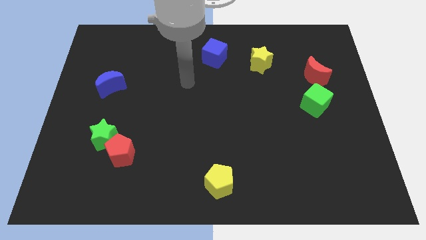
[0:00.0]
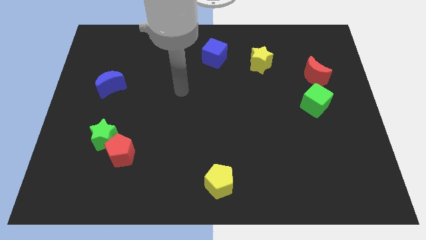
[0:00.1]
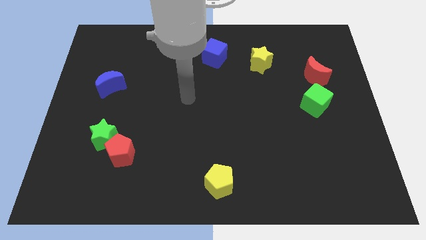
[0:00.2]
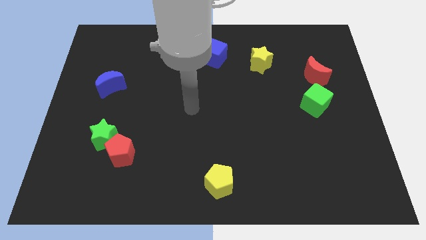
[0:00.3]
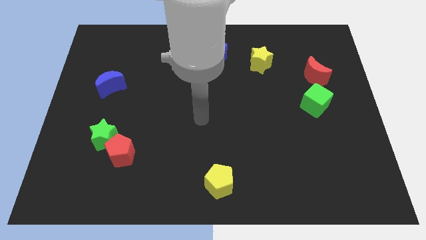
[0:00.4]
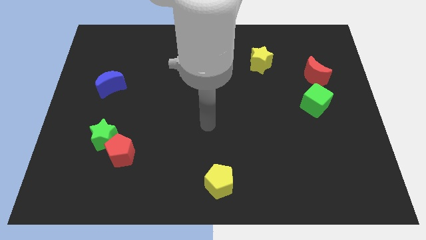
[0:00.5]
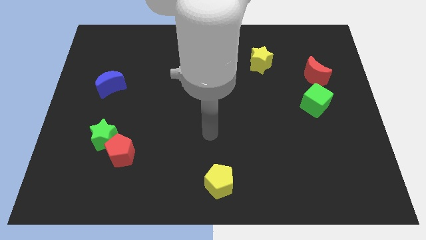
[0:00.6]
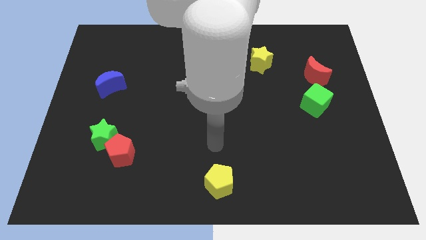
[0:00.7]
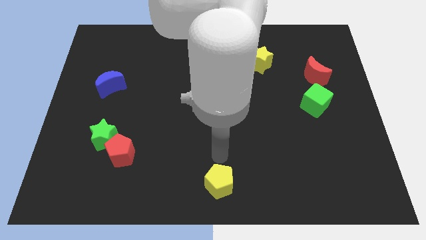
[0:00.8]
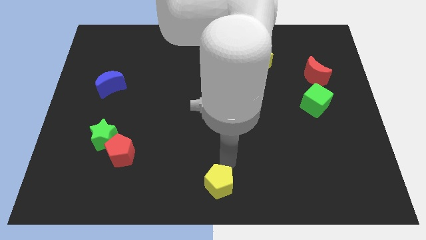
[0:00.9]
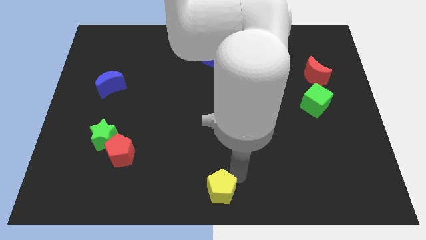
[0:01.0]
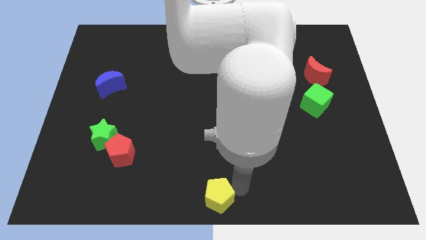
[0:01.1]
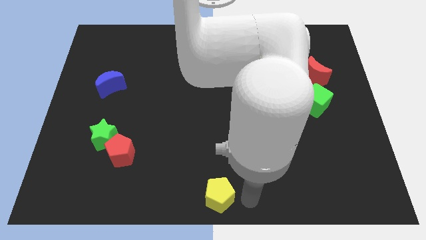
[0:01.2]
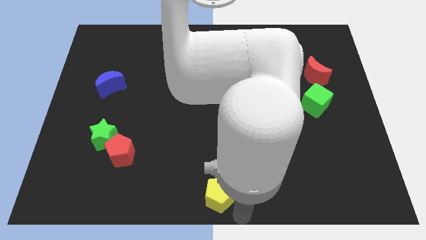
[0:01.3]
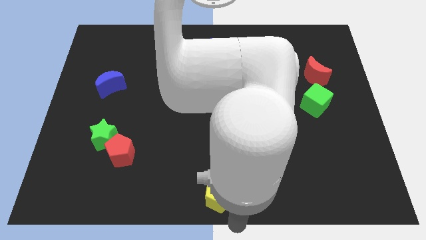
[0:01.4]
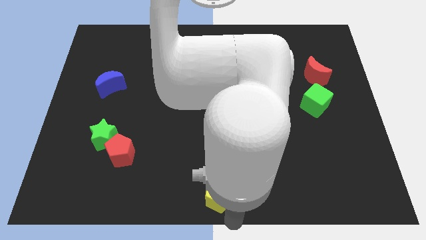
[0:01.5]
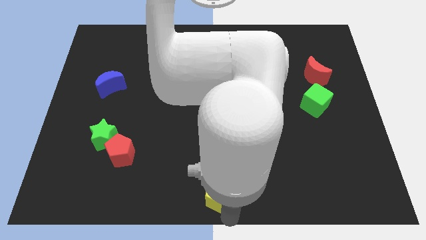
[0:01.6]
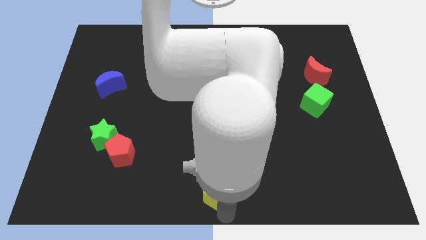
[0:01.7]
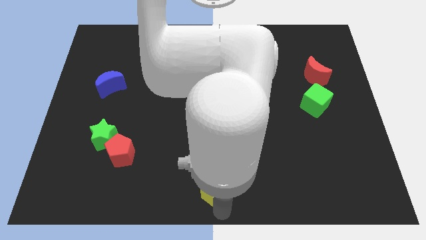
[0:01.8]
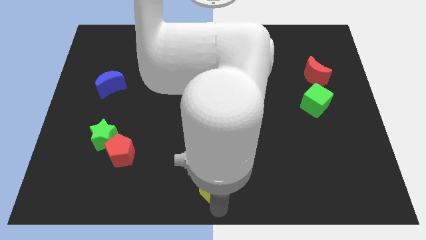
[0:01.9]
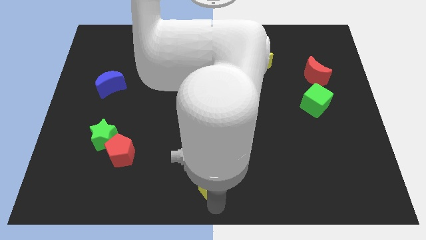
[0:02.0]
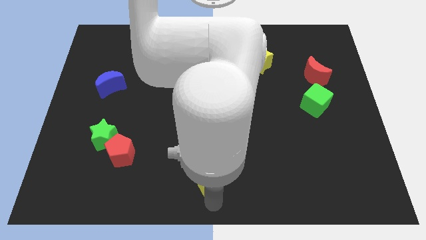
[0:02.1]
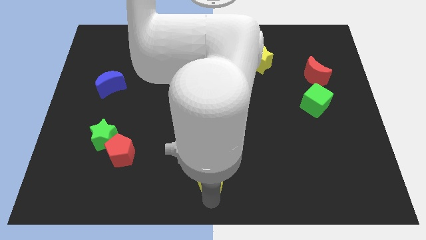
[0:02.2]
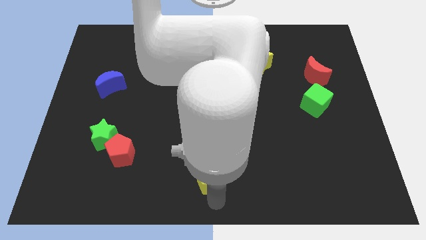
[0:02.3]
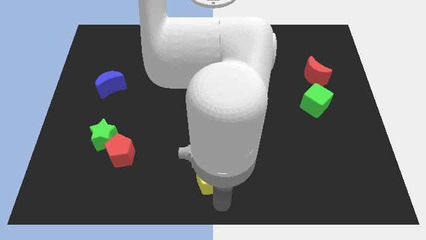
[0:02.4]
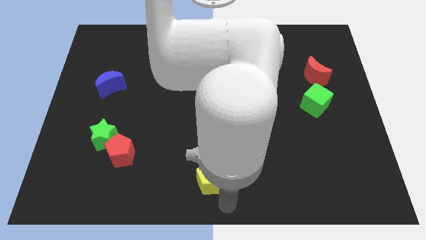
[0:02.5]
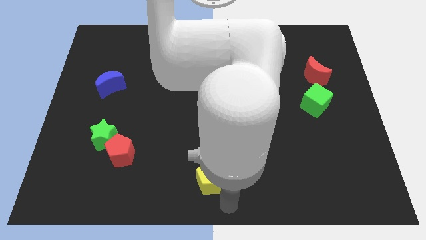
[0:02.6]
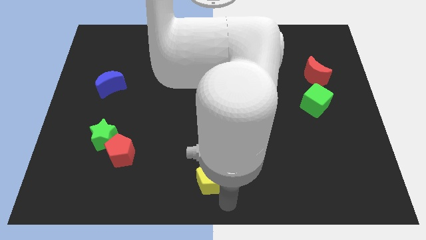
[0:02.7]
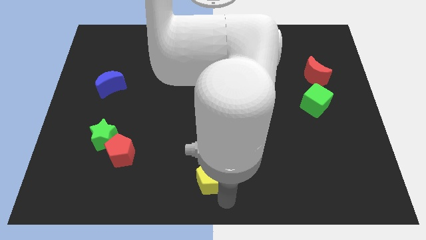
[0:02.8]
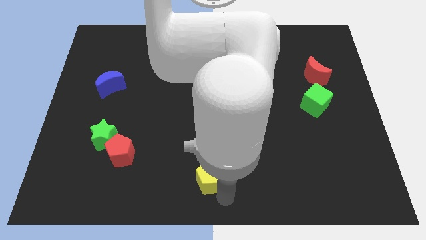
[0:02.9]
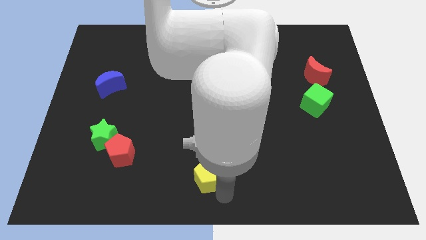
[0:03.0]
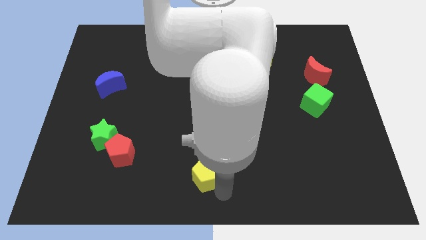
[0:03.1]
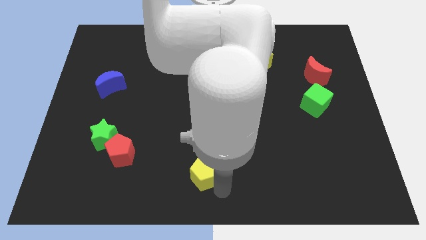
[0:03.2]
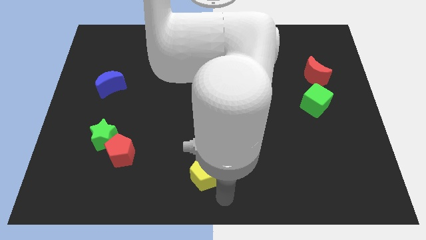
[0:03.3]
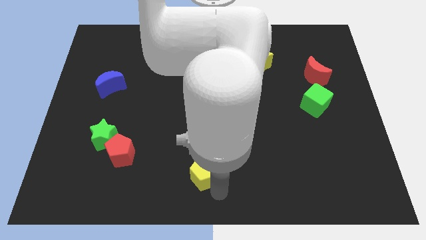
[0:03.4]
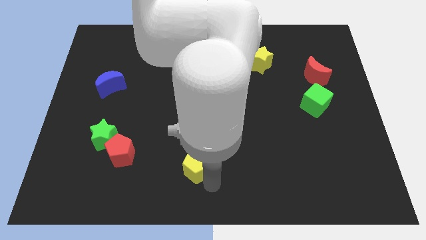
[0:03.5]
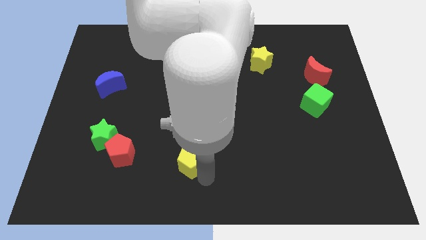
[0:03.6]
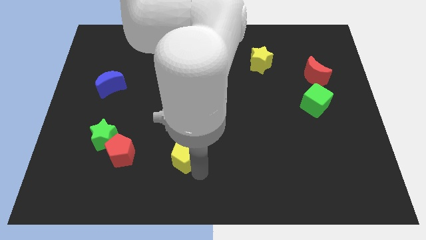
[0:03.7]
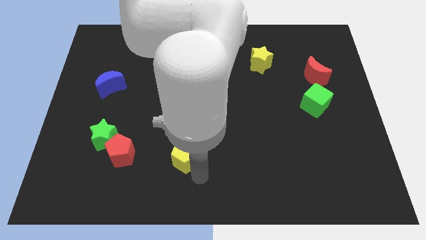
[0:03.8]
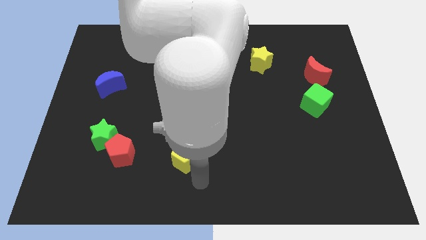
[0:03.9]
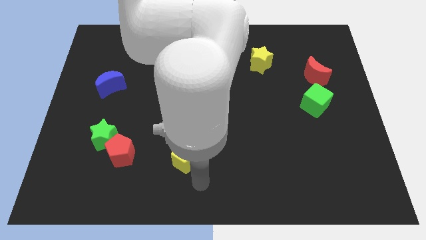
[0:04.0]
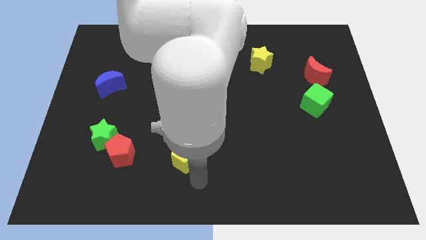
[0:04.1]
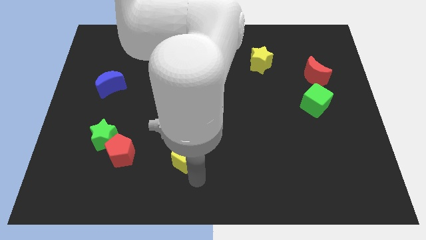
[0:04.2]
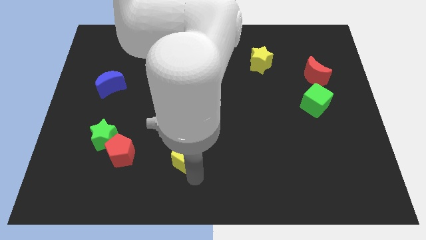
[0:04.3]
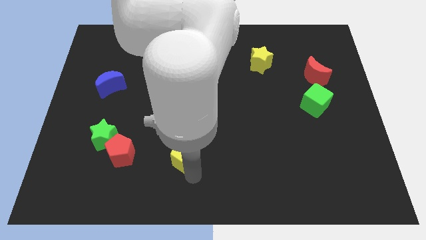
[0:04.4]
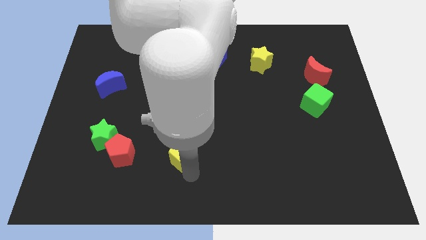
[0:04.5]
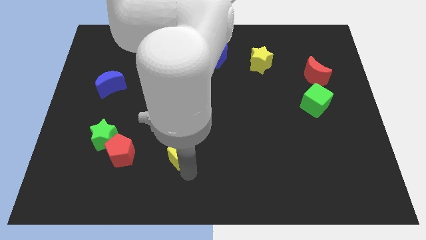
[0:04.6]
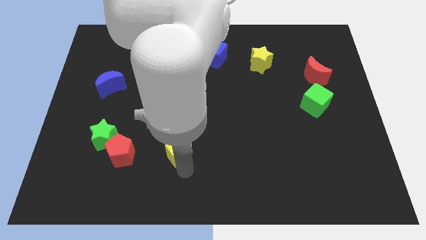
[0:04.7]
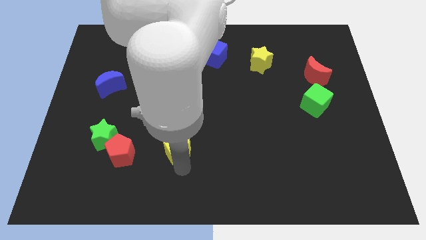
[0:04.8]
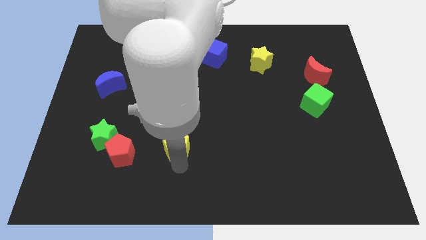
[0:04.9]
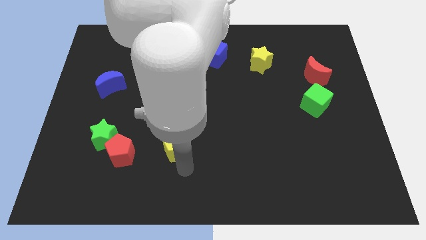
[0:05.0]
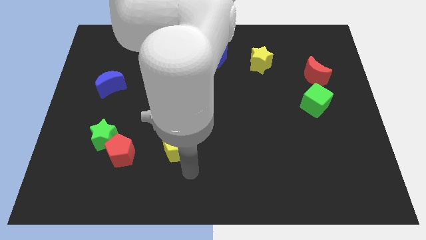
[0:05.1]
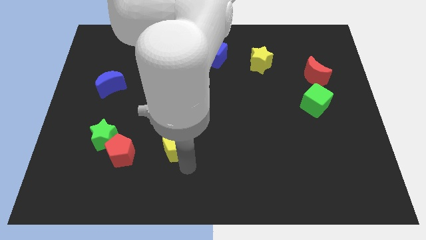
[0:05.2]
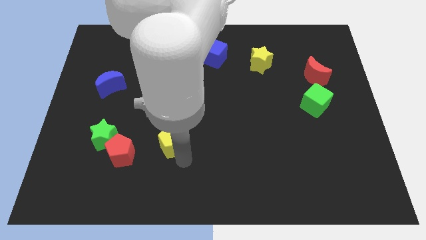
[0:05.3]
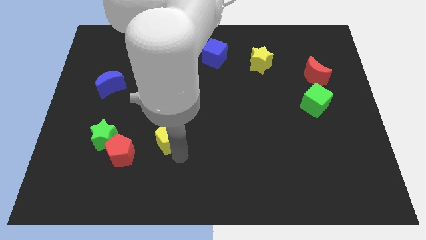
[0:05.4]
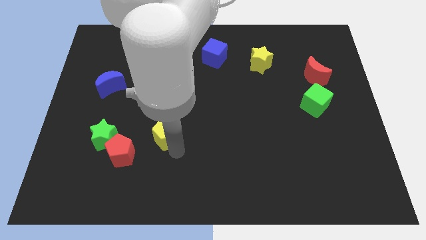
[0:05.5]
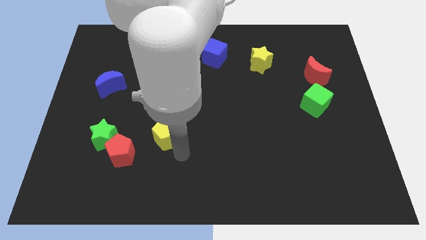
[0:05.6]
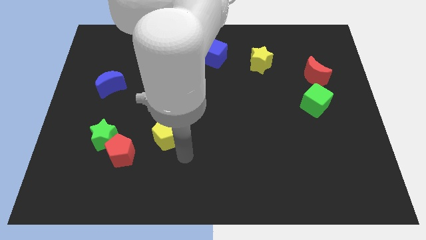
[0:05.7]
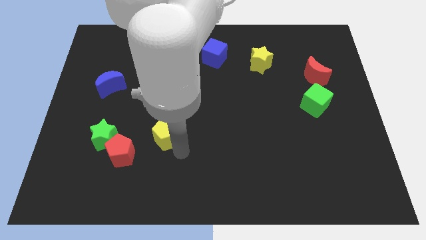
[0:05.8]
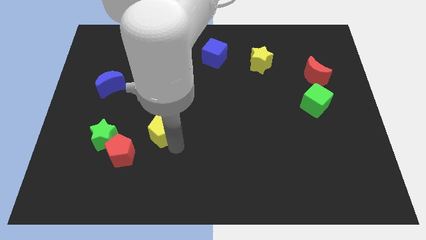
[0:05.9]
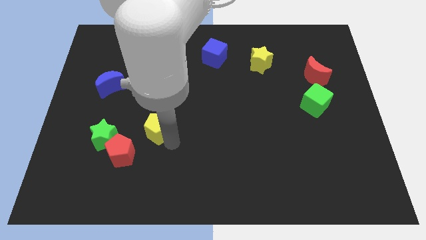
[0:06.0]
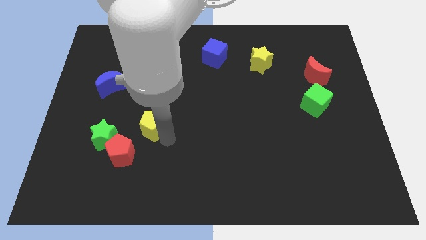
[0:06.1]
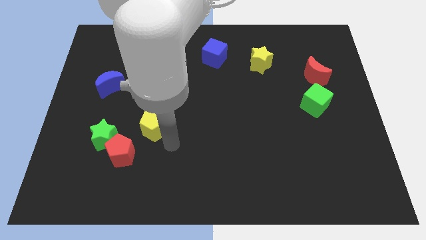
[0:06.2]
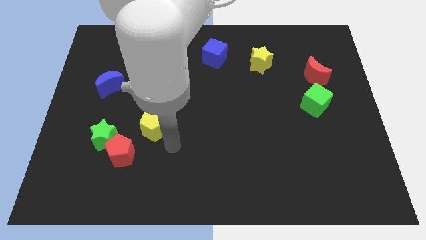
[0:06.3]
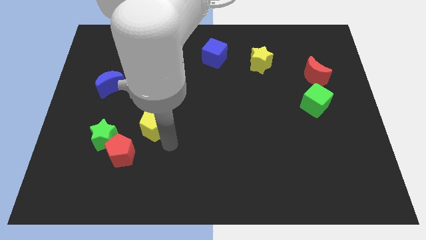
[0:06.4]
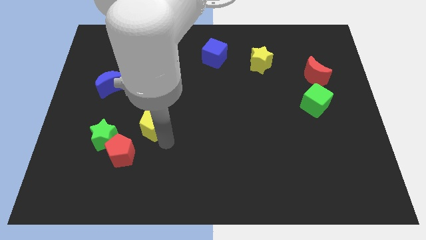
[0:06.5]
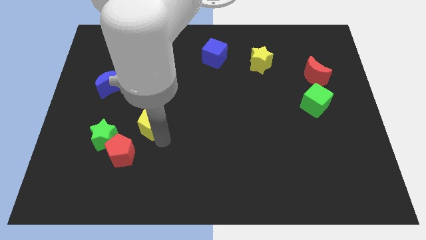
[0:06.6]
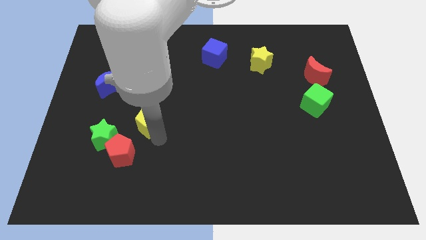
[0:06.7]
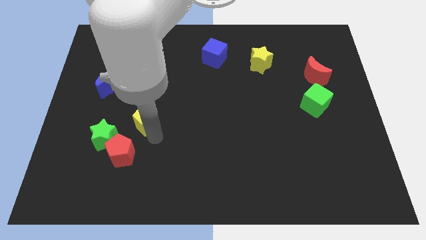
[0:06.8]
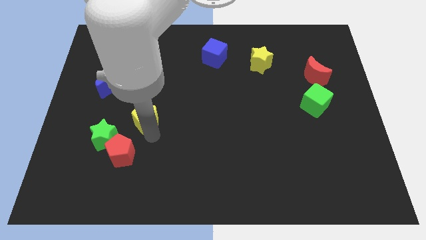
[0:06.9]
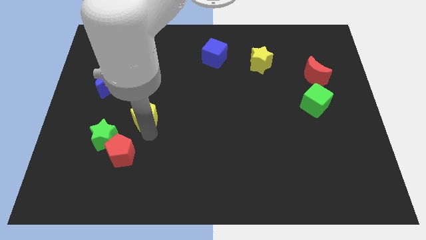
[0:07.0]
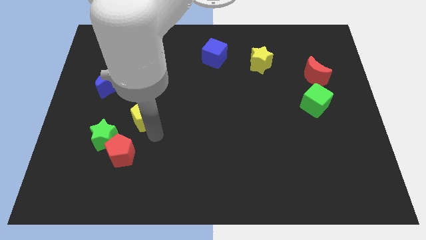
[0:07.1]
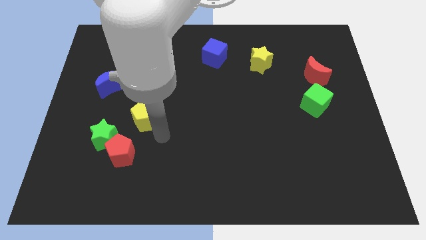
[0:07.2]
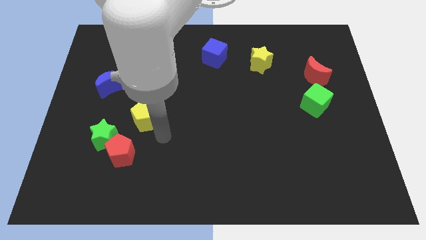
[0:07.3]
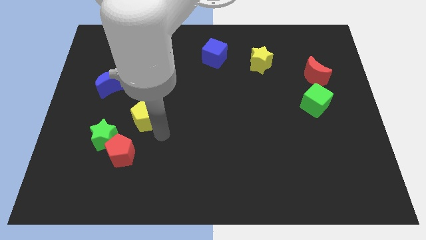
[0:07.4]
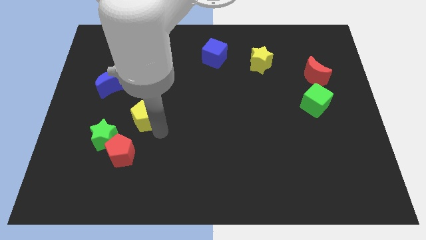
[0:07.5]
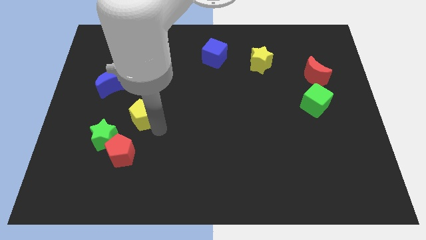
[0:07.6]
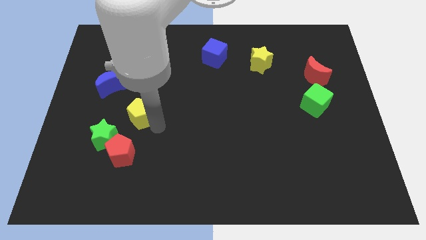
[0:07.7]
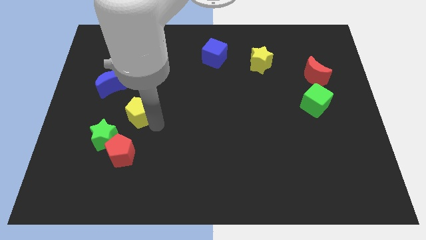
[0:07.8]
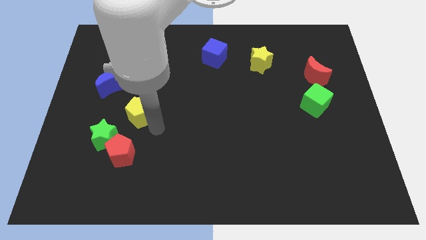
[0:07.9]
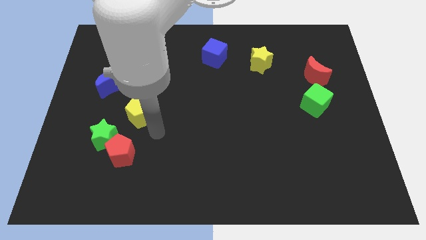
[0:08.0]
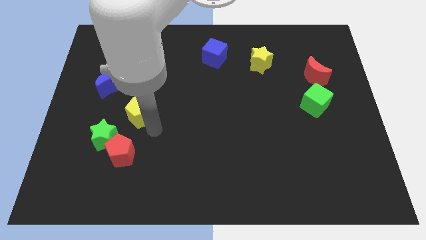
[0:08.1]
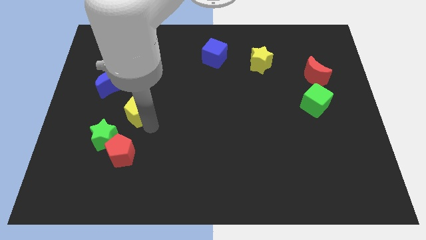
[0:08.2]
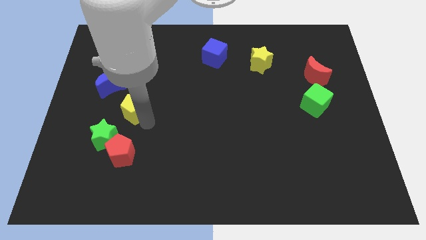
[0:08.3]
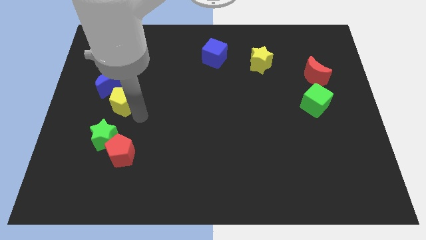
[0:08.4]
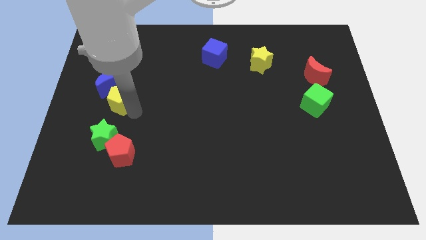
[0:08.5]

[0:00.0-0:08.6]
slide the yellow pentagon close to the blue moon
